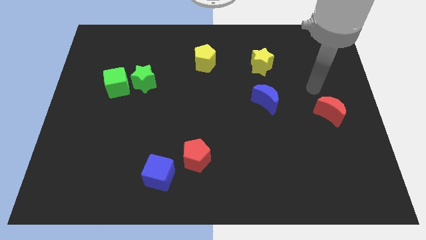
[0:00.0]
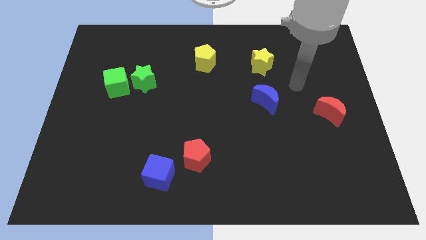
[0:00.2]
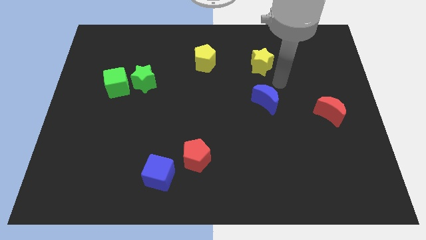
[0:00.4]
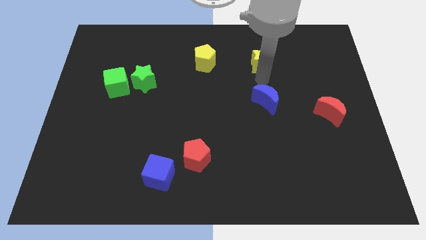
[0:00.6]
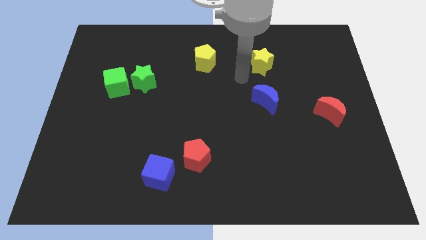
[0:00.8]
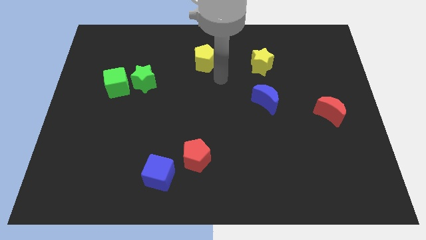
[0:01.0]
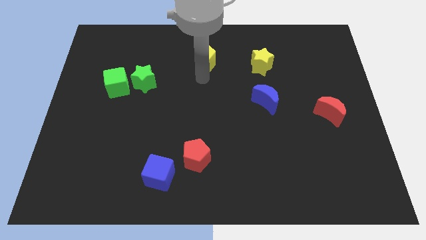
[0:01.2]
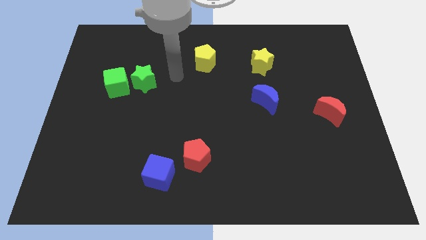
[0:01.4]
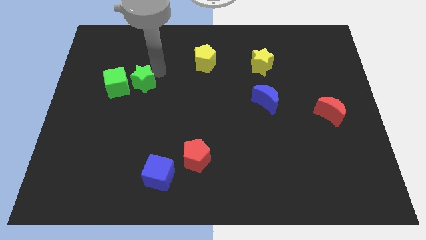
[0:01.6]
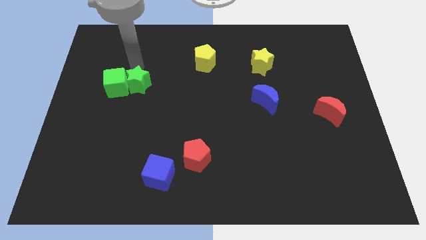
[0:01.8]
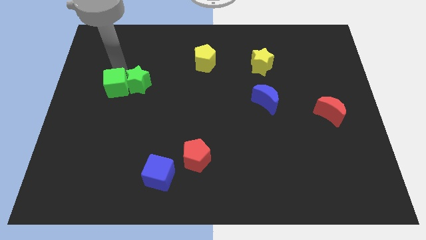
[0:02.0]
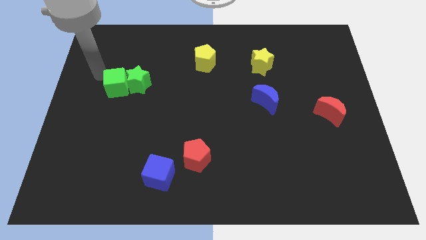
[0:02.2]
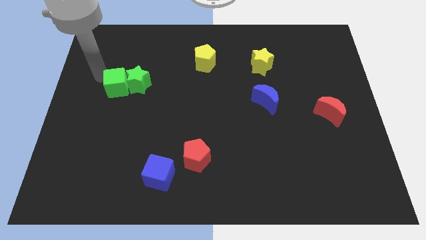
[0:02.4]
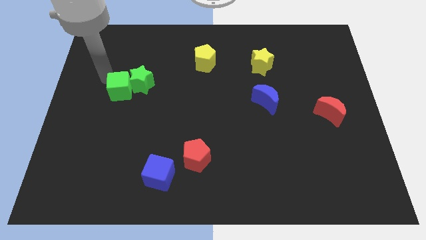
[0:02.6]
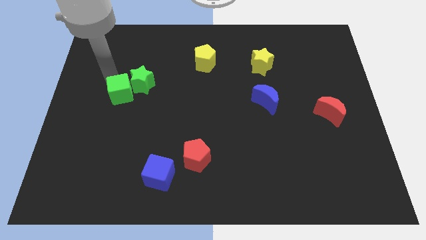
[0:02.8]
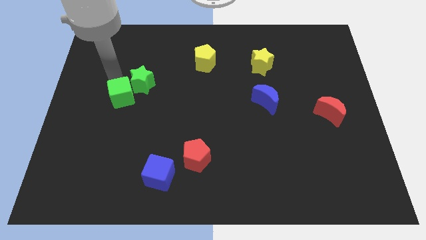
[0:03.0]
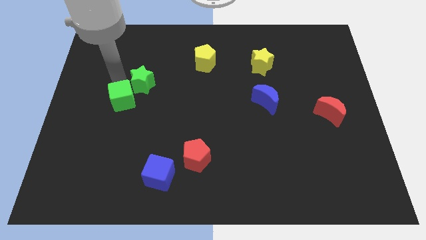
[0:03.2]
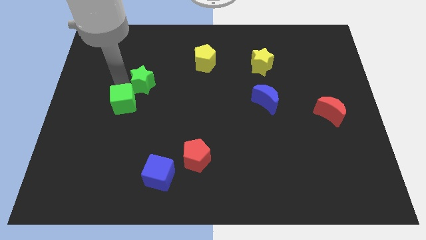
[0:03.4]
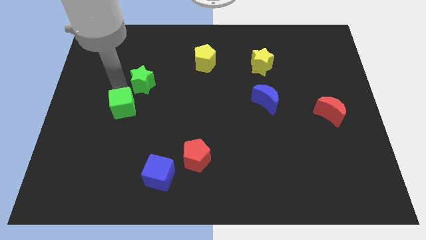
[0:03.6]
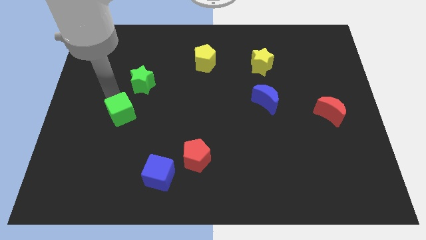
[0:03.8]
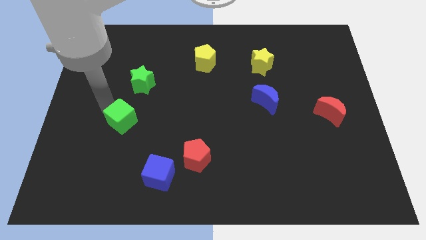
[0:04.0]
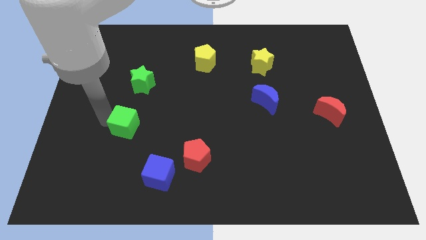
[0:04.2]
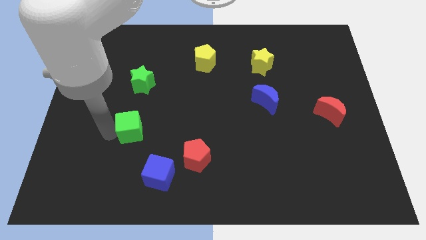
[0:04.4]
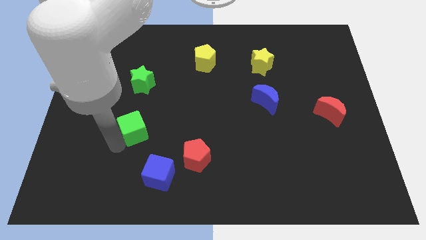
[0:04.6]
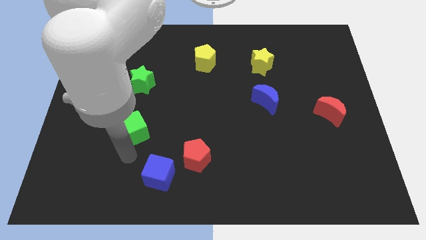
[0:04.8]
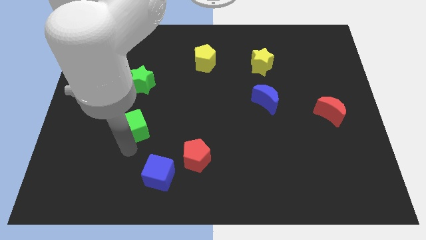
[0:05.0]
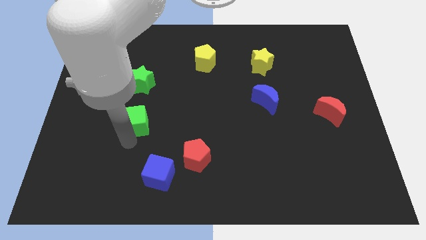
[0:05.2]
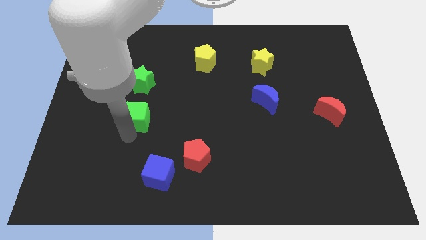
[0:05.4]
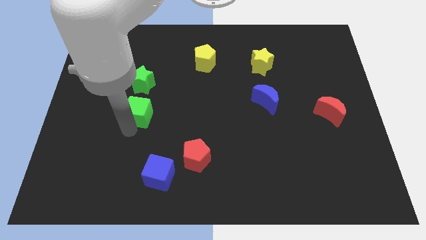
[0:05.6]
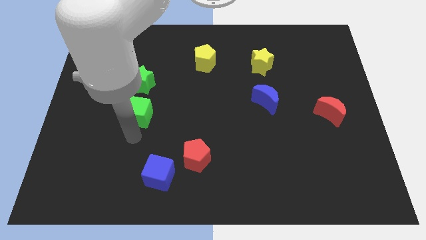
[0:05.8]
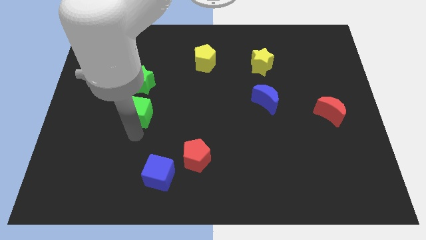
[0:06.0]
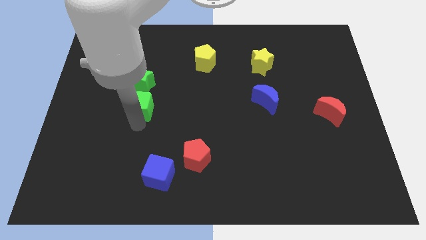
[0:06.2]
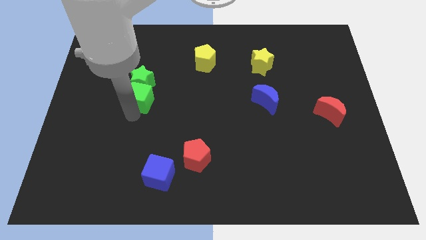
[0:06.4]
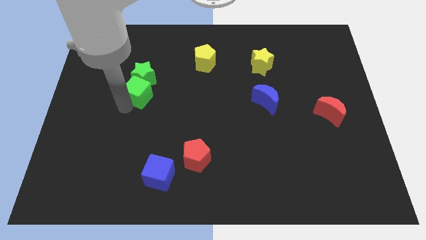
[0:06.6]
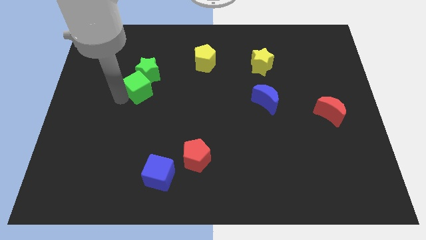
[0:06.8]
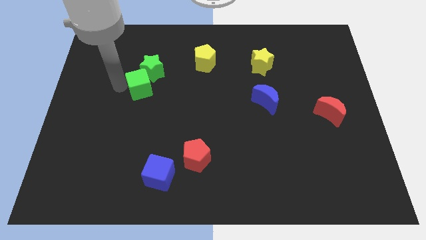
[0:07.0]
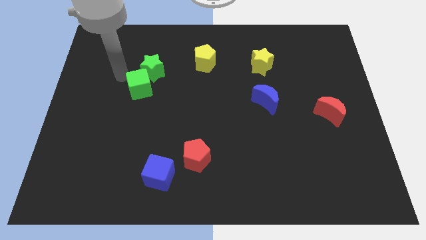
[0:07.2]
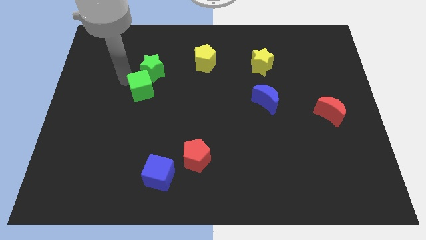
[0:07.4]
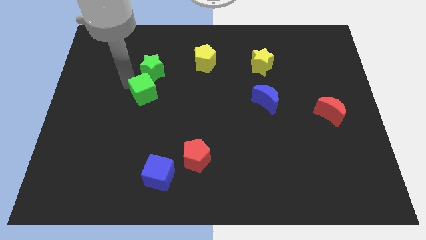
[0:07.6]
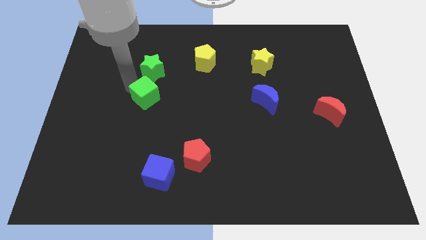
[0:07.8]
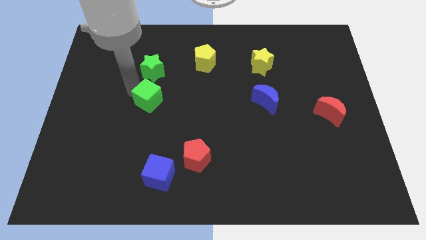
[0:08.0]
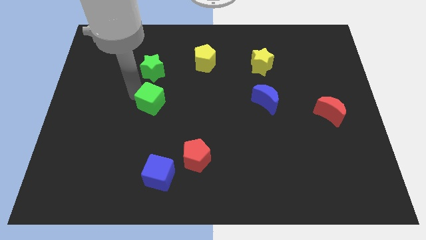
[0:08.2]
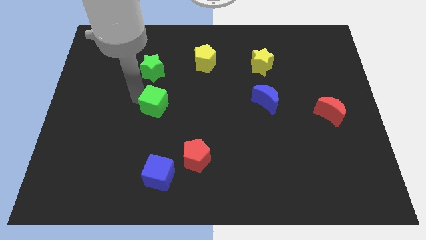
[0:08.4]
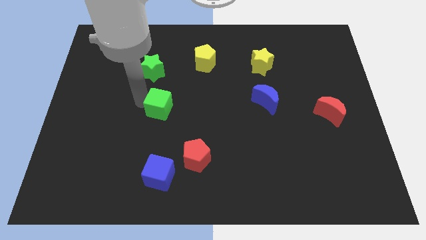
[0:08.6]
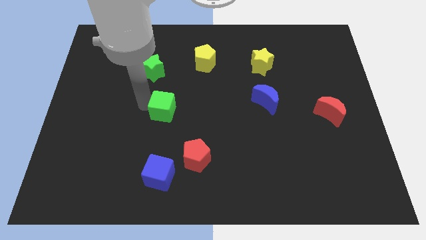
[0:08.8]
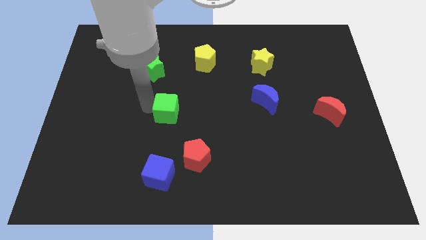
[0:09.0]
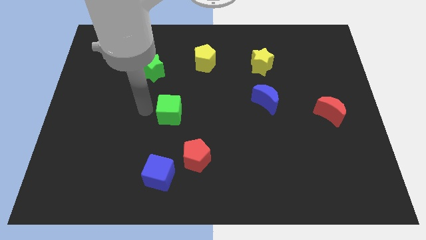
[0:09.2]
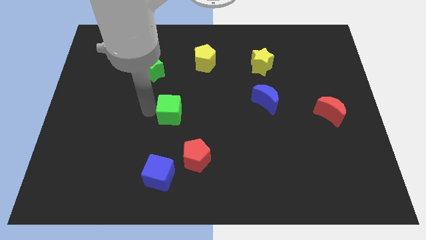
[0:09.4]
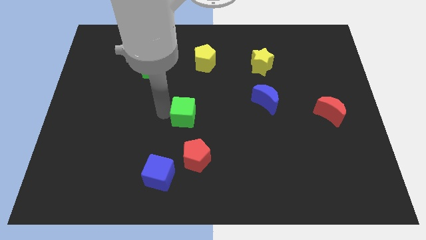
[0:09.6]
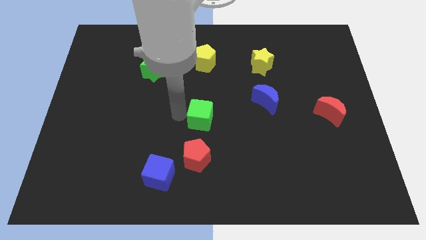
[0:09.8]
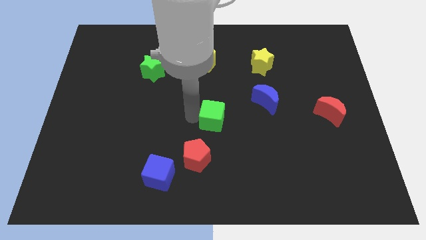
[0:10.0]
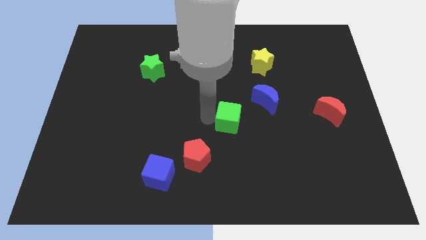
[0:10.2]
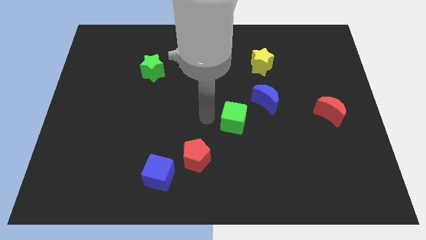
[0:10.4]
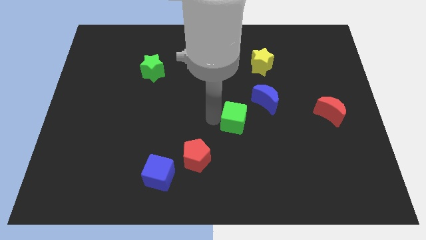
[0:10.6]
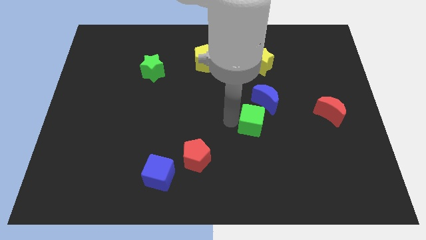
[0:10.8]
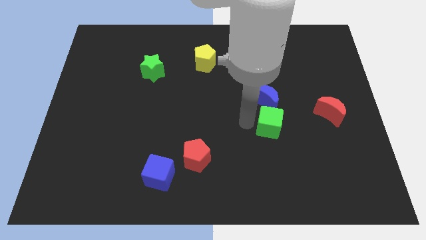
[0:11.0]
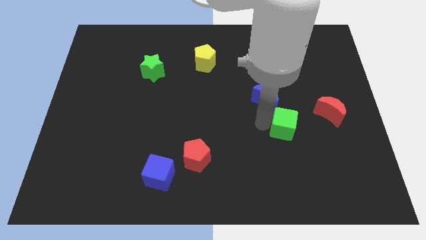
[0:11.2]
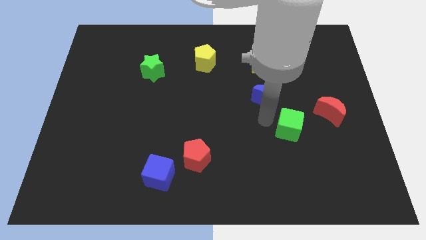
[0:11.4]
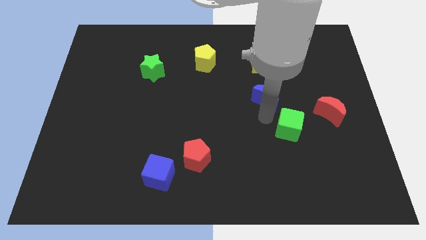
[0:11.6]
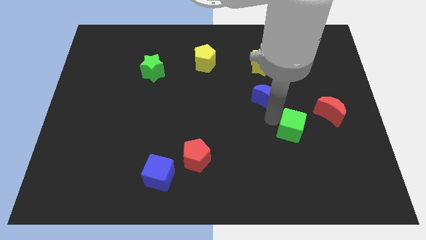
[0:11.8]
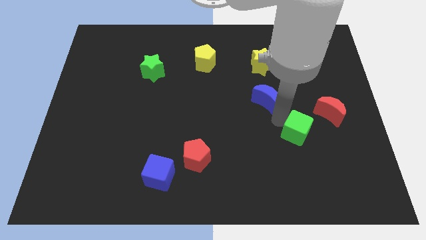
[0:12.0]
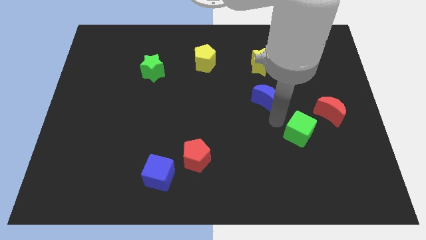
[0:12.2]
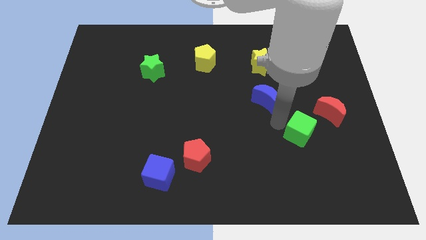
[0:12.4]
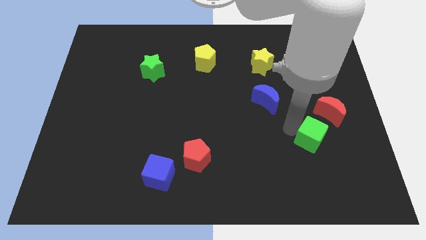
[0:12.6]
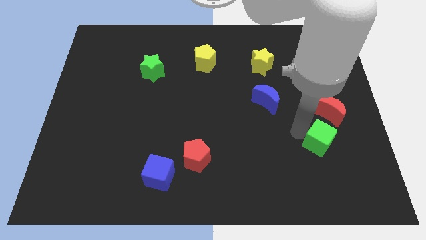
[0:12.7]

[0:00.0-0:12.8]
push the green cube to the bottom of the red moon
